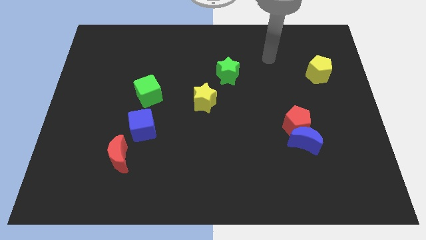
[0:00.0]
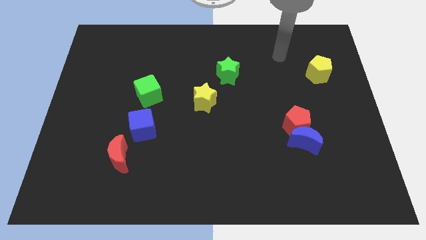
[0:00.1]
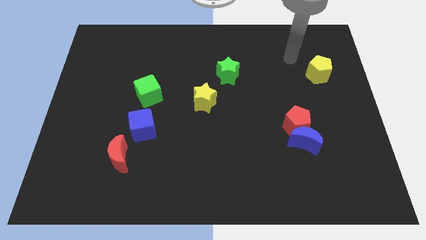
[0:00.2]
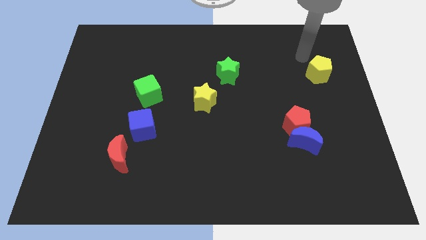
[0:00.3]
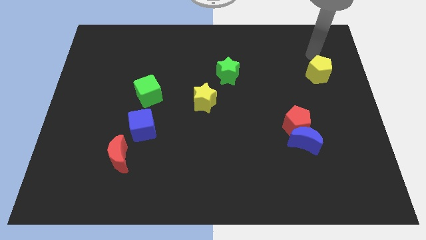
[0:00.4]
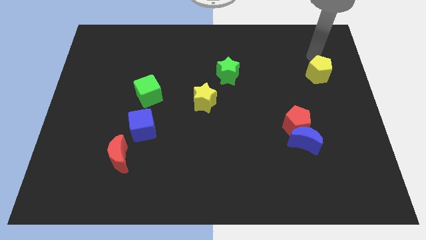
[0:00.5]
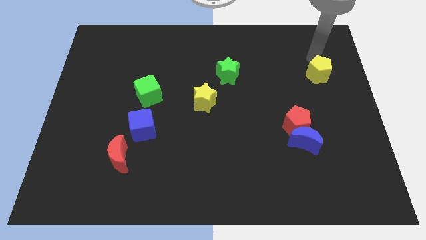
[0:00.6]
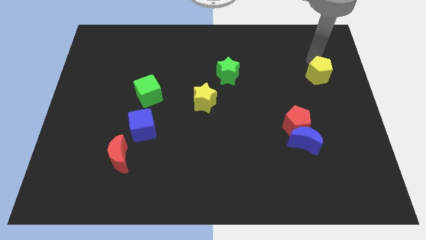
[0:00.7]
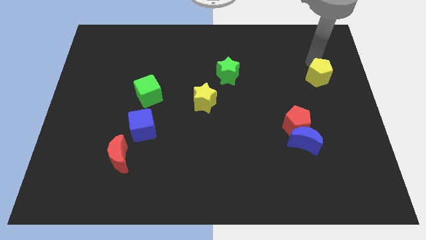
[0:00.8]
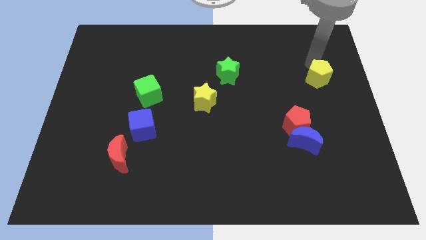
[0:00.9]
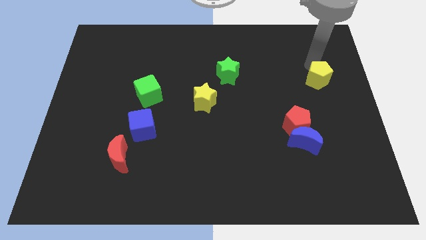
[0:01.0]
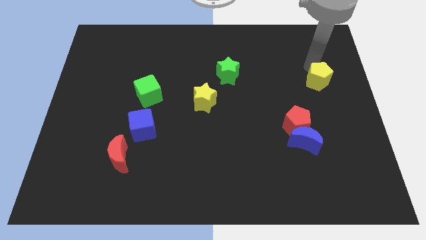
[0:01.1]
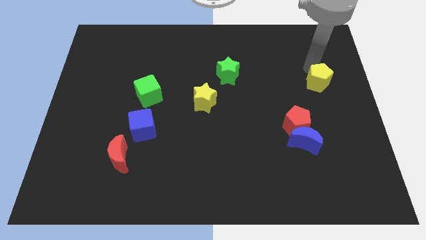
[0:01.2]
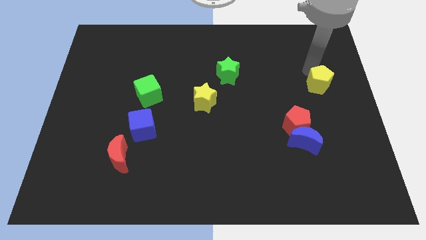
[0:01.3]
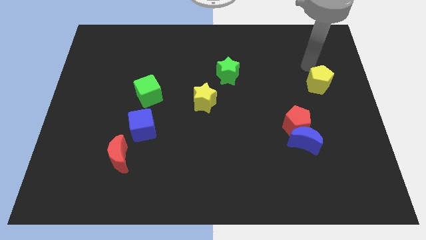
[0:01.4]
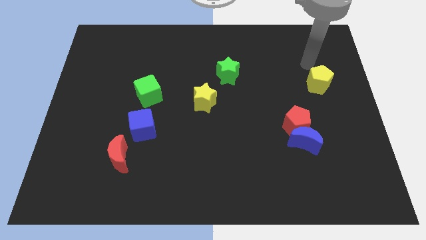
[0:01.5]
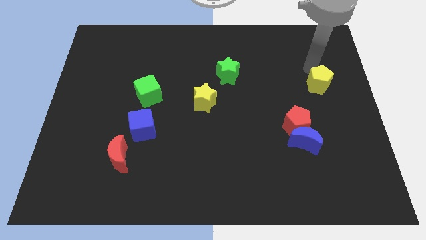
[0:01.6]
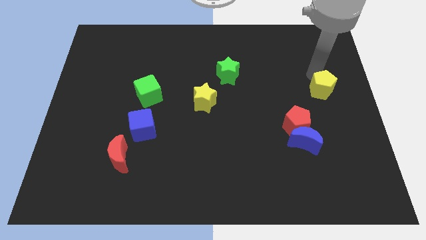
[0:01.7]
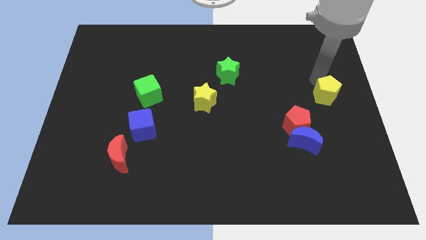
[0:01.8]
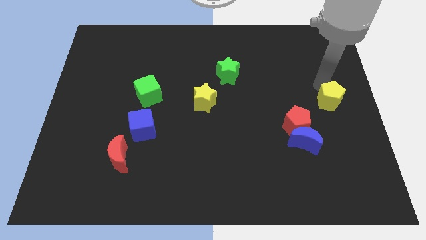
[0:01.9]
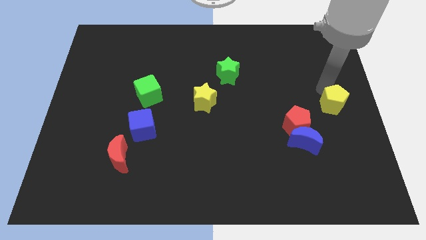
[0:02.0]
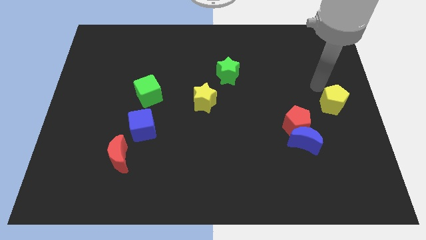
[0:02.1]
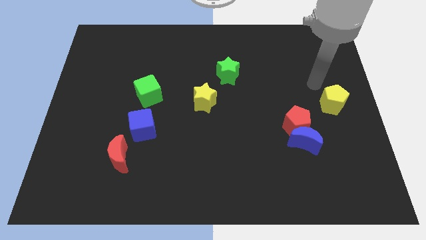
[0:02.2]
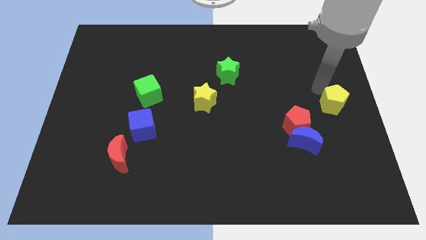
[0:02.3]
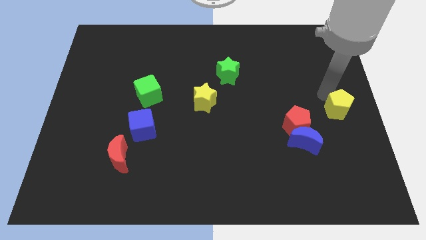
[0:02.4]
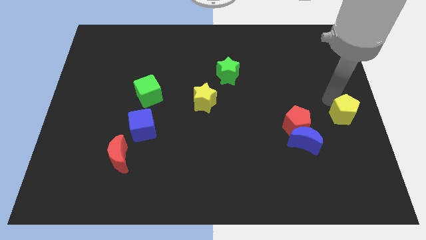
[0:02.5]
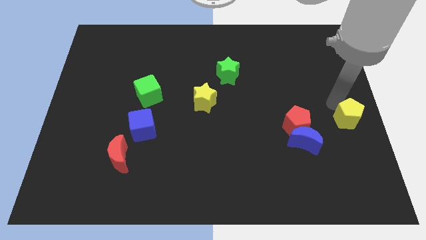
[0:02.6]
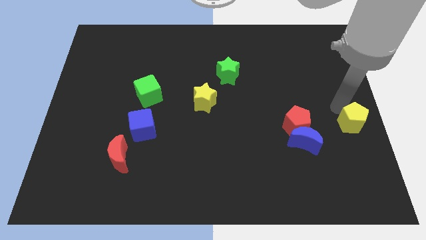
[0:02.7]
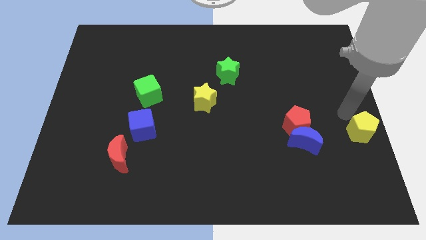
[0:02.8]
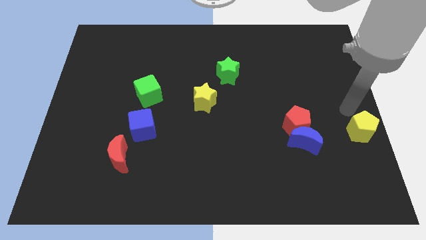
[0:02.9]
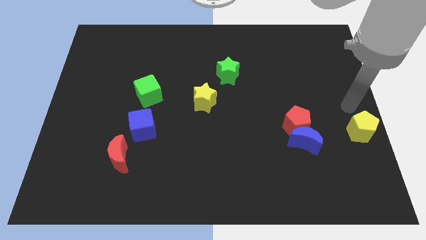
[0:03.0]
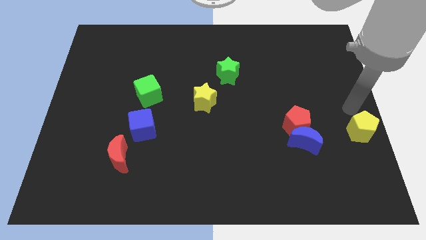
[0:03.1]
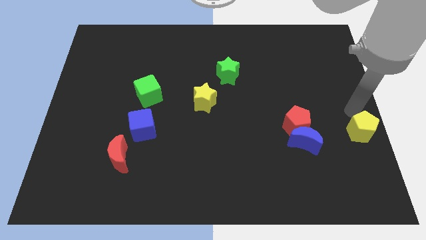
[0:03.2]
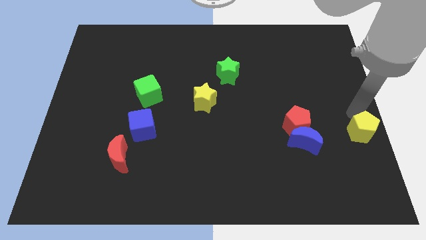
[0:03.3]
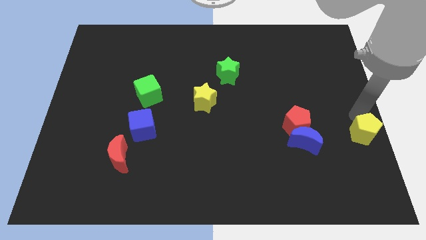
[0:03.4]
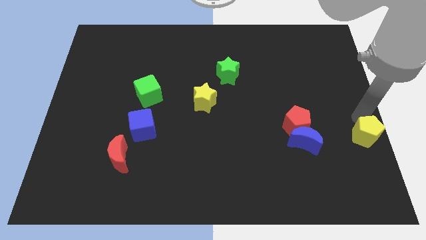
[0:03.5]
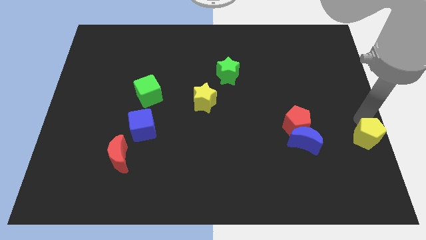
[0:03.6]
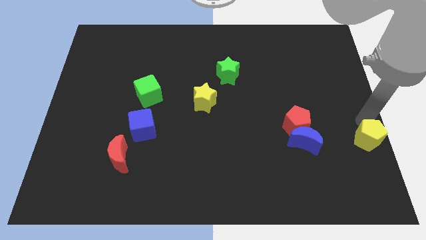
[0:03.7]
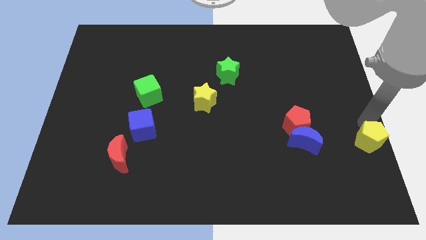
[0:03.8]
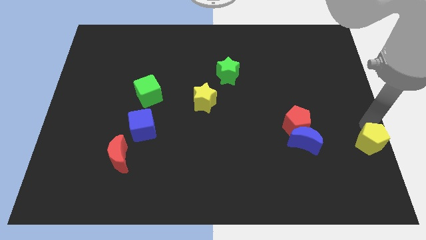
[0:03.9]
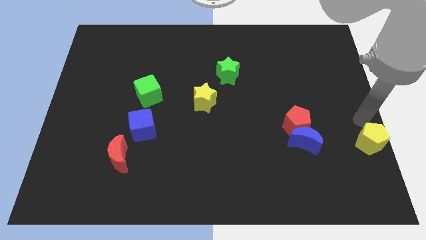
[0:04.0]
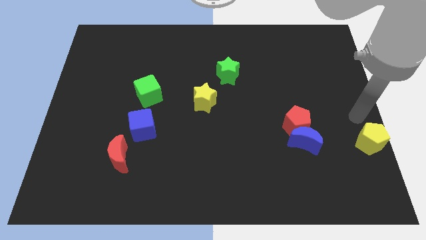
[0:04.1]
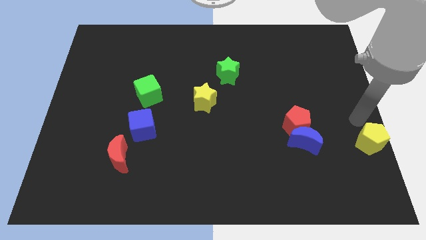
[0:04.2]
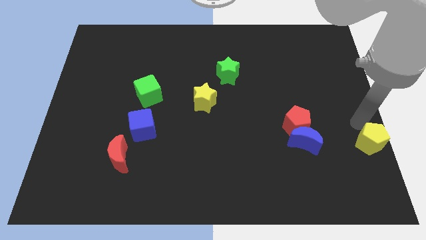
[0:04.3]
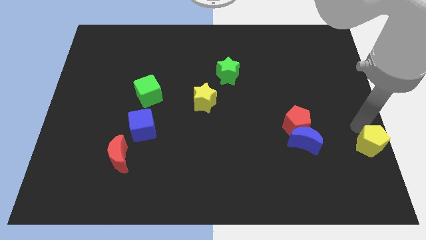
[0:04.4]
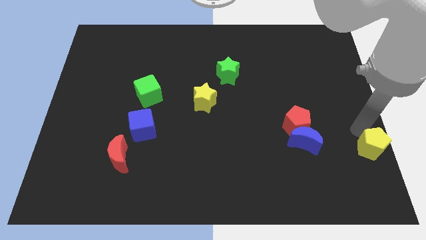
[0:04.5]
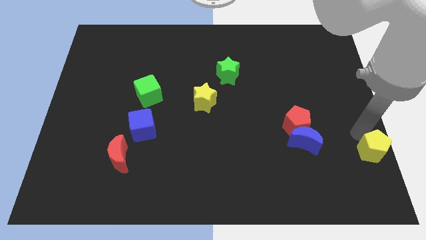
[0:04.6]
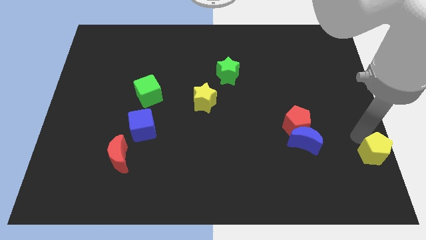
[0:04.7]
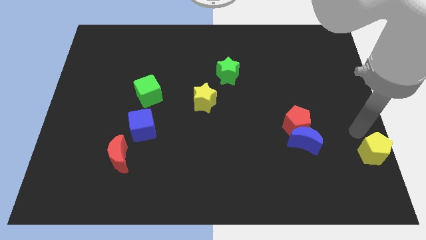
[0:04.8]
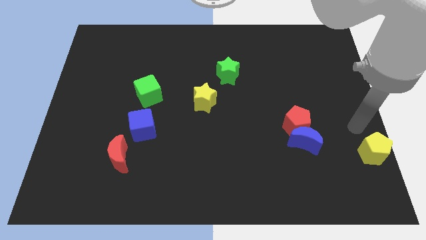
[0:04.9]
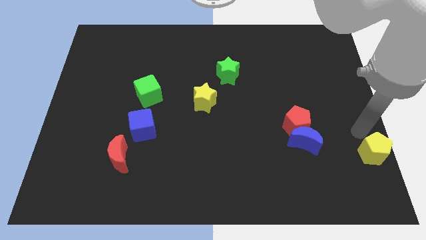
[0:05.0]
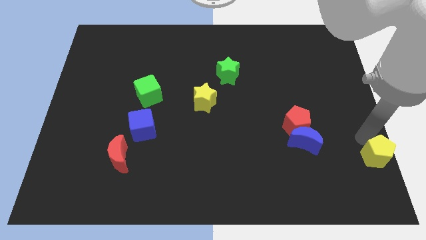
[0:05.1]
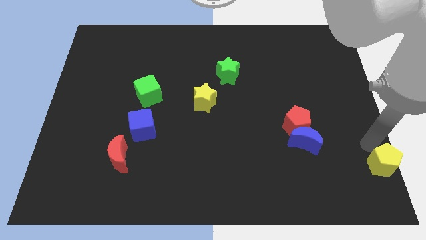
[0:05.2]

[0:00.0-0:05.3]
put the yellow pentagon to the bottom right corner
